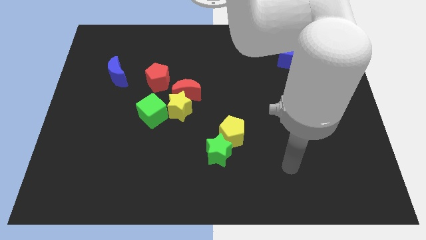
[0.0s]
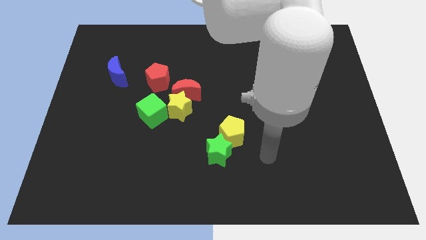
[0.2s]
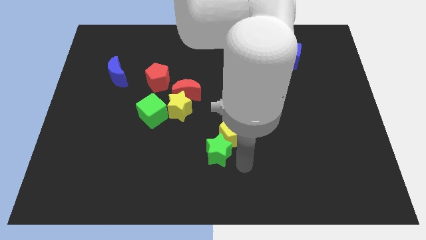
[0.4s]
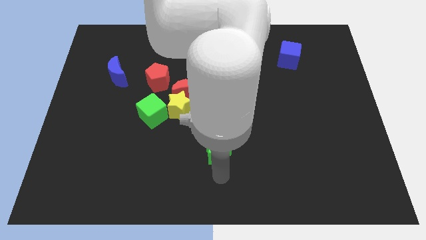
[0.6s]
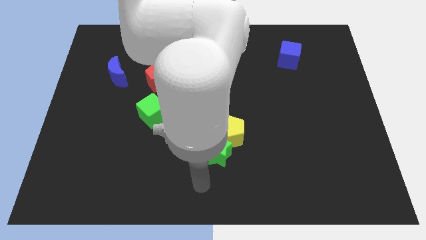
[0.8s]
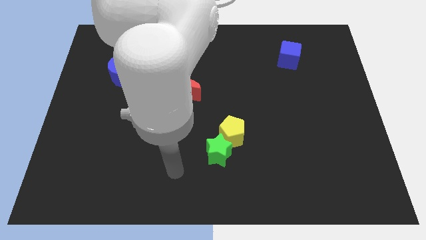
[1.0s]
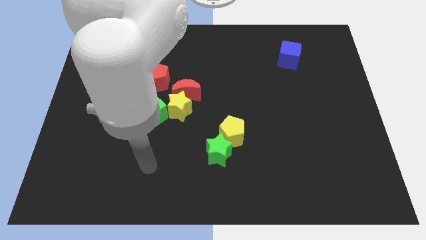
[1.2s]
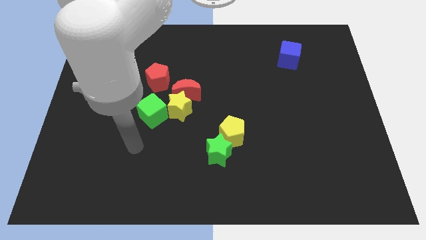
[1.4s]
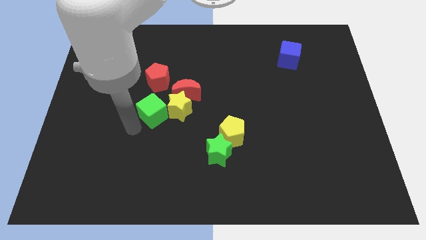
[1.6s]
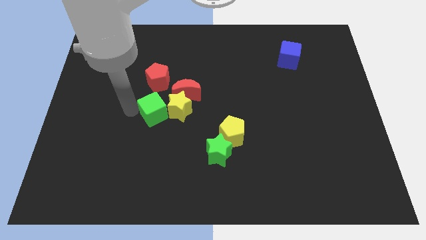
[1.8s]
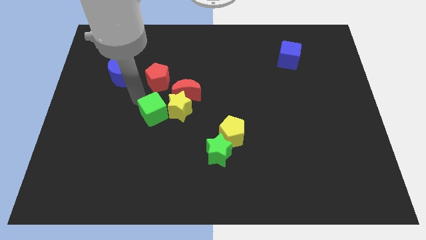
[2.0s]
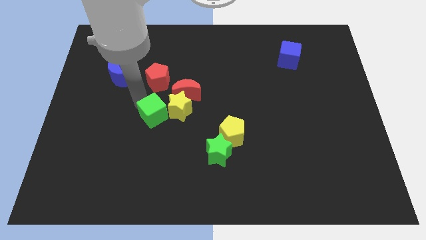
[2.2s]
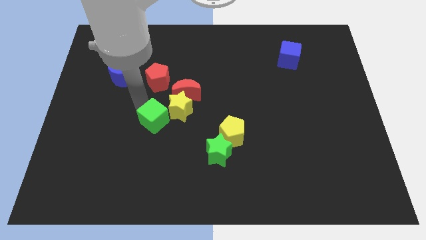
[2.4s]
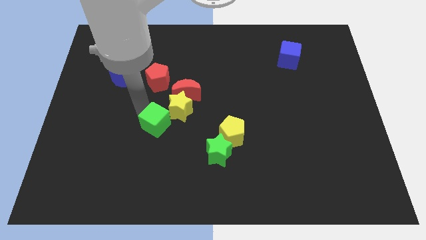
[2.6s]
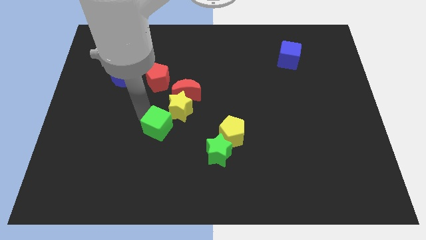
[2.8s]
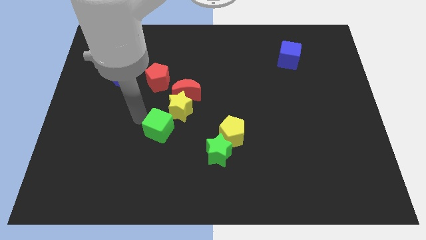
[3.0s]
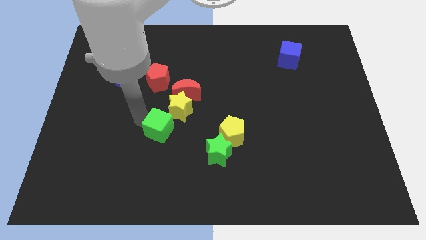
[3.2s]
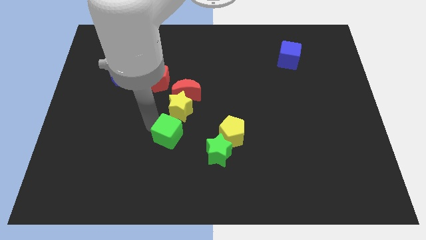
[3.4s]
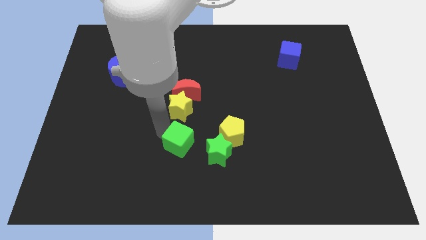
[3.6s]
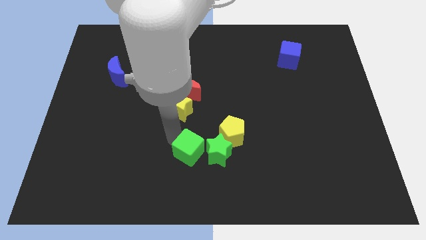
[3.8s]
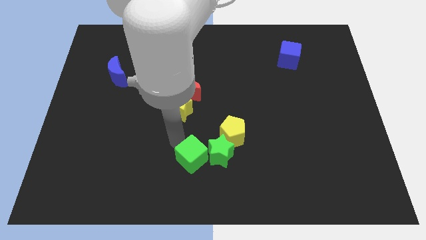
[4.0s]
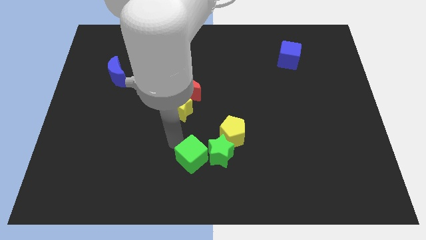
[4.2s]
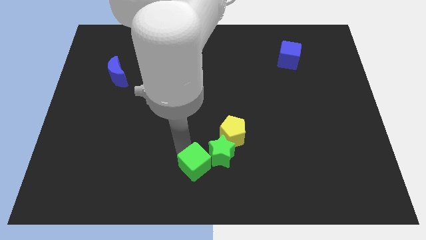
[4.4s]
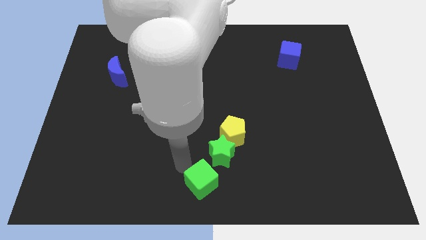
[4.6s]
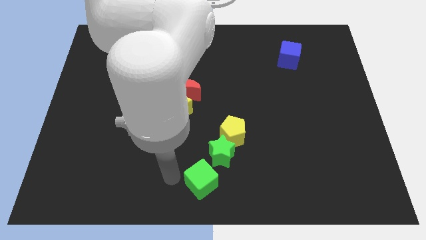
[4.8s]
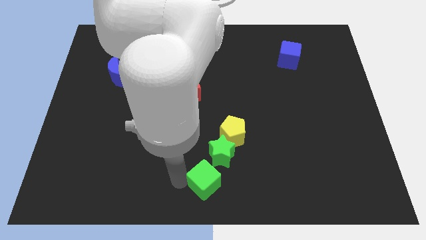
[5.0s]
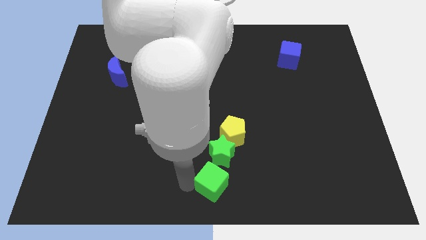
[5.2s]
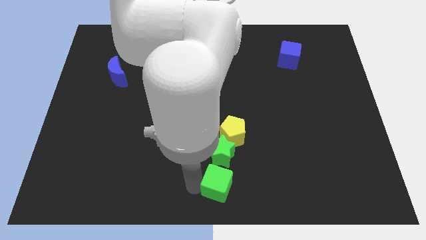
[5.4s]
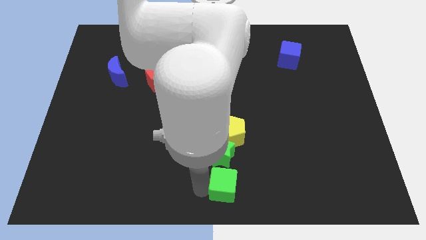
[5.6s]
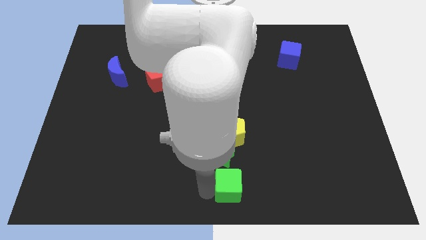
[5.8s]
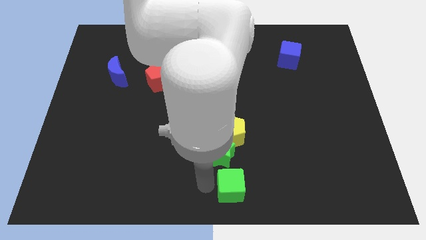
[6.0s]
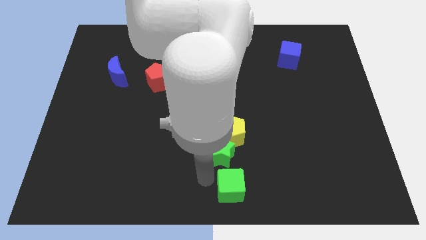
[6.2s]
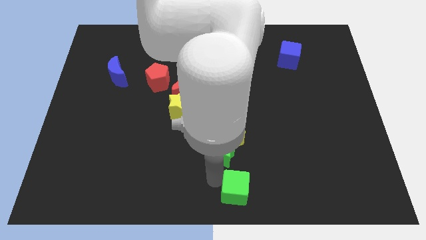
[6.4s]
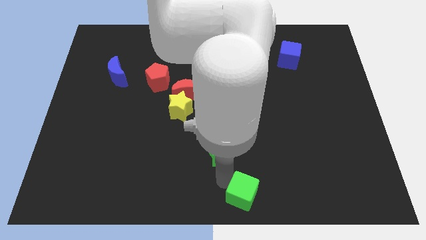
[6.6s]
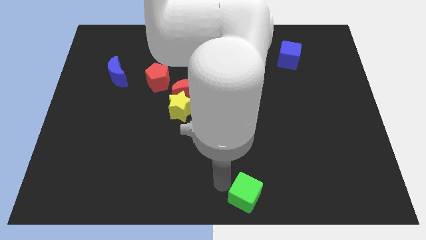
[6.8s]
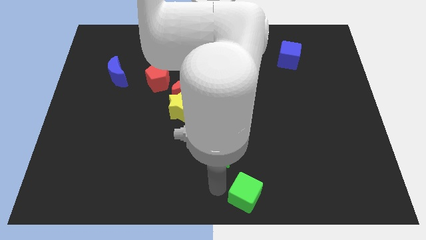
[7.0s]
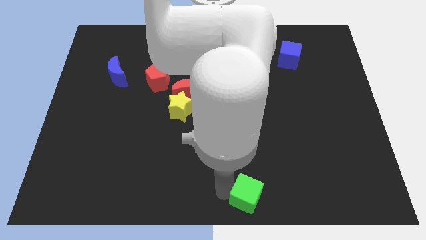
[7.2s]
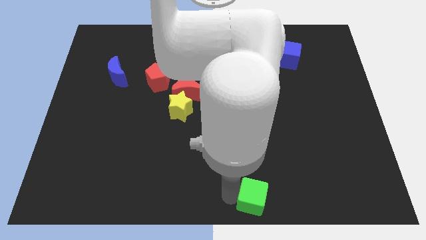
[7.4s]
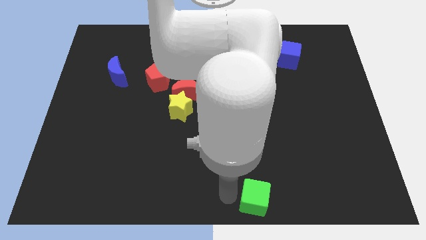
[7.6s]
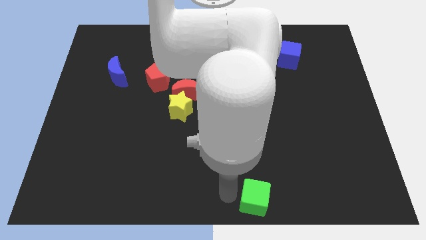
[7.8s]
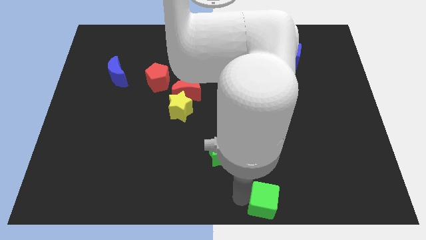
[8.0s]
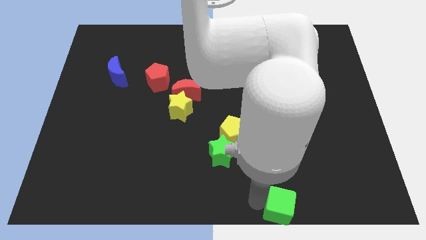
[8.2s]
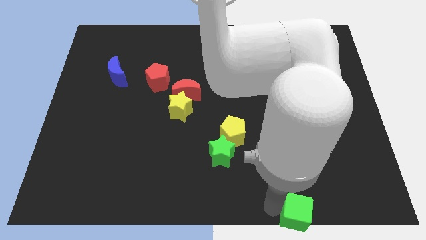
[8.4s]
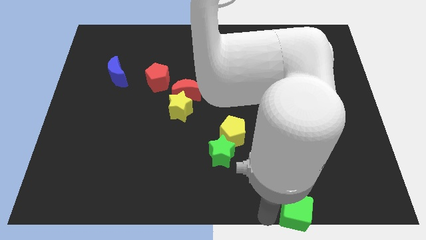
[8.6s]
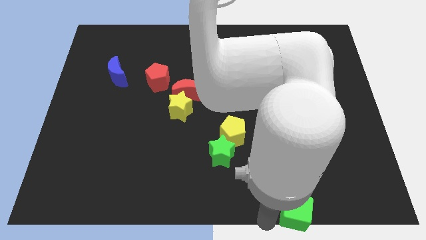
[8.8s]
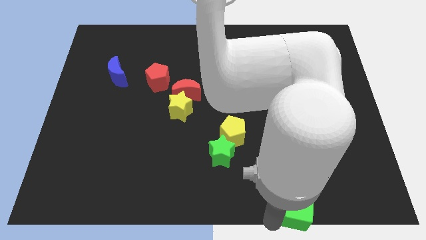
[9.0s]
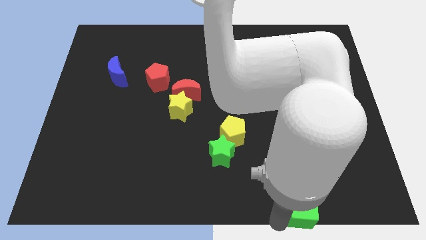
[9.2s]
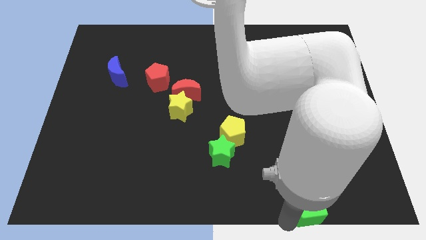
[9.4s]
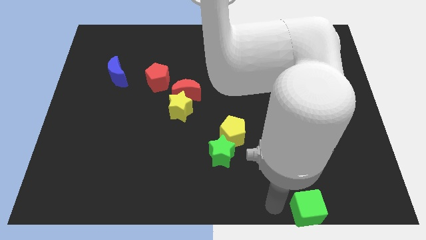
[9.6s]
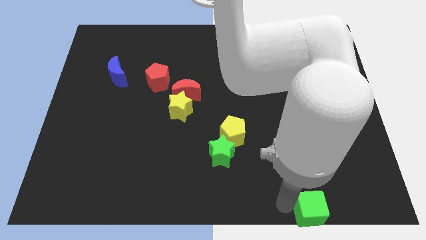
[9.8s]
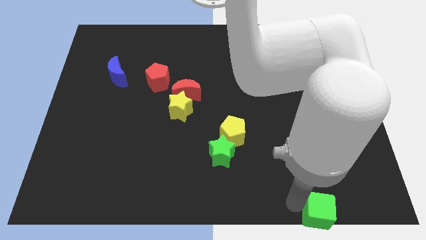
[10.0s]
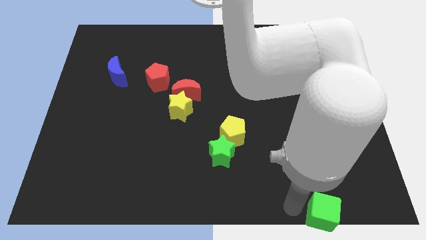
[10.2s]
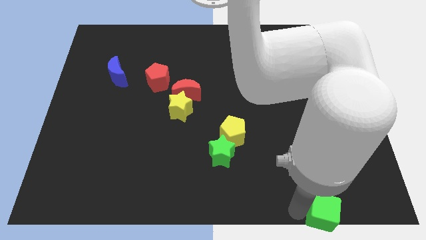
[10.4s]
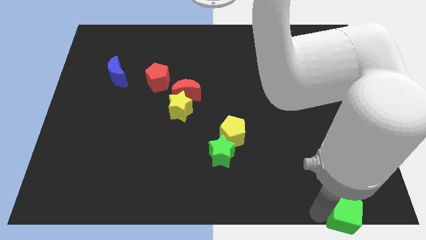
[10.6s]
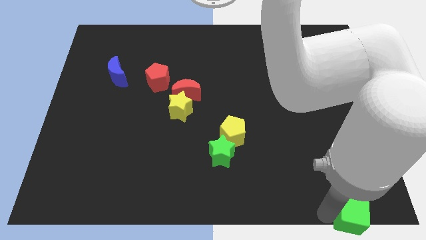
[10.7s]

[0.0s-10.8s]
slide the green cube to the lower right corner
